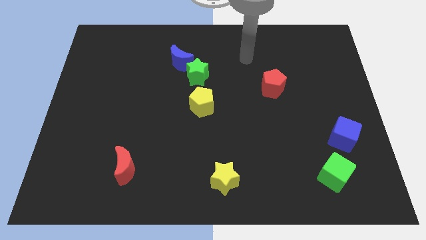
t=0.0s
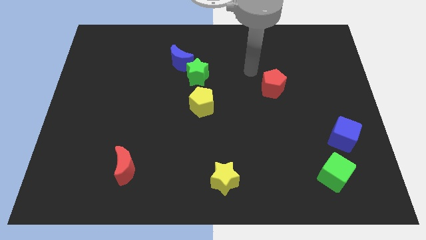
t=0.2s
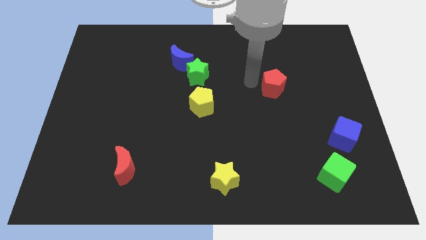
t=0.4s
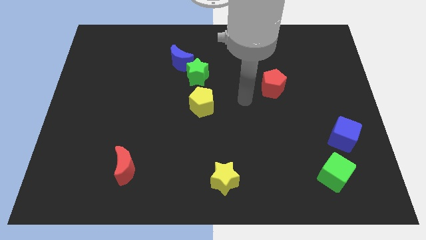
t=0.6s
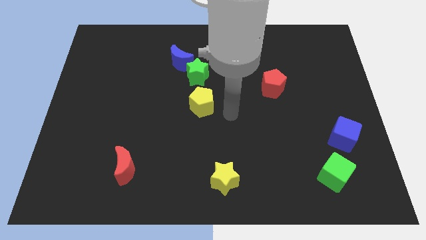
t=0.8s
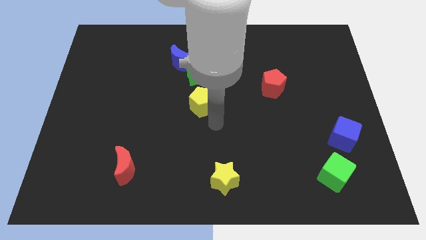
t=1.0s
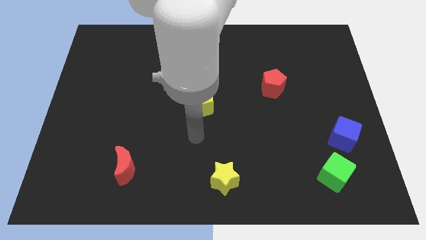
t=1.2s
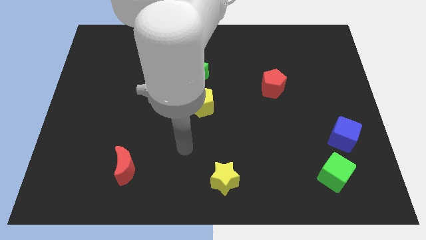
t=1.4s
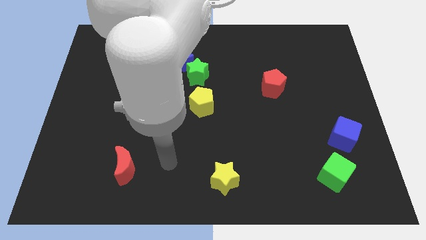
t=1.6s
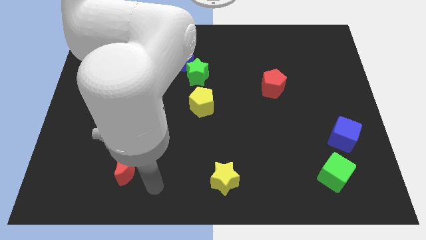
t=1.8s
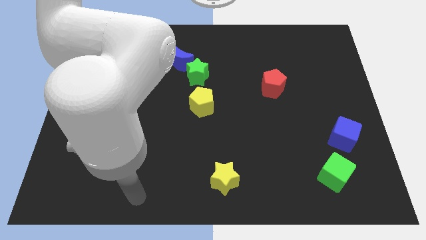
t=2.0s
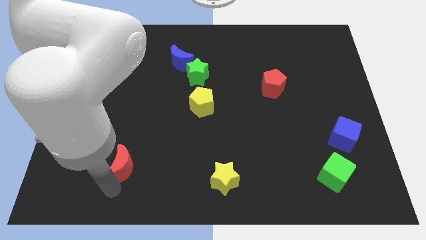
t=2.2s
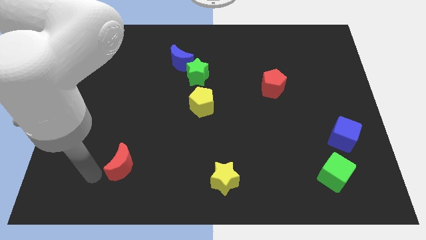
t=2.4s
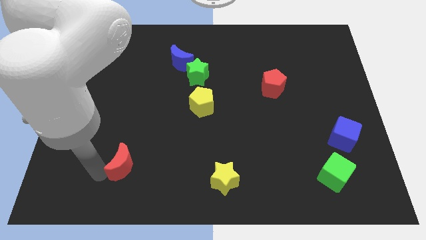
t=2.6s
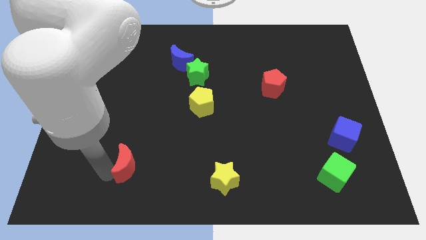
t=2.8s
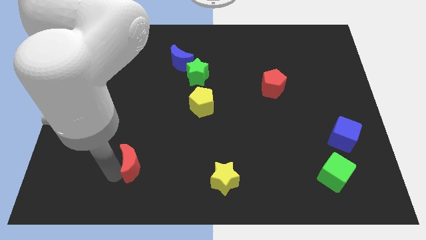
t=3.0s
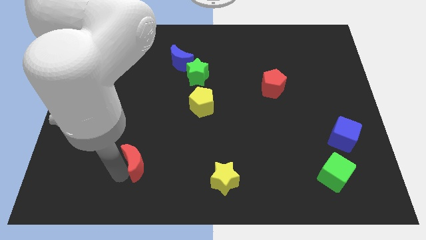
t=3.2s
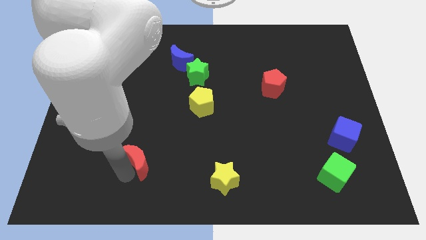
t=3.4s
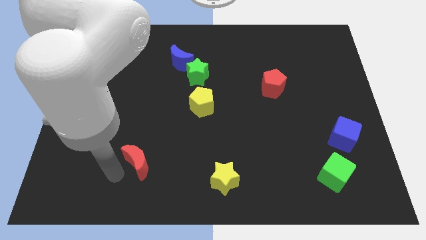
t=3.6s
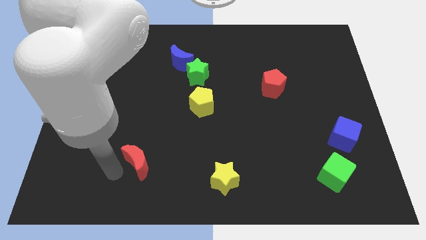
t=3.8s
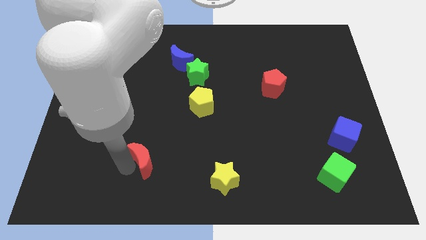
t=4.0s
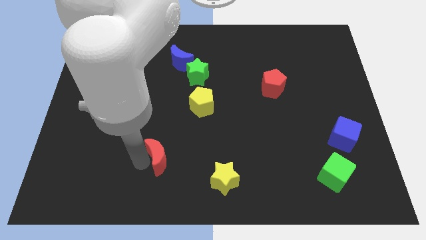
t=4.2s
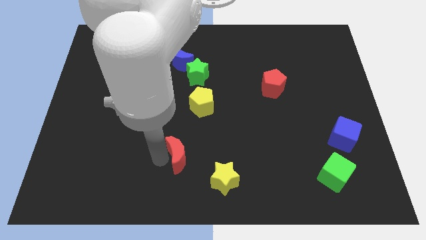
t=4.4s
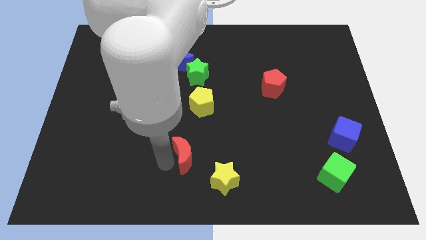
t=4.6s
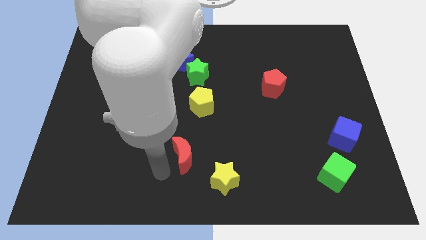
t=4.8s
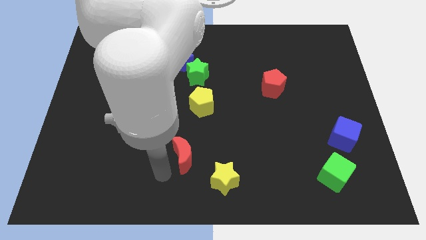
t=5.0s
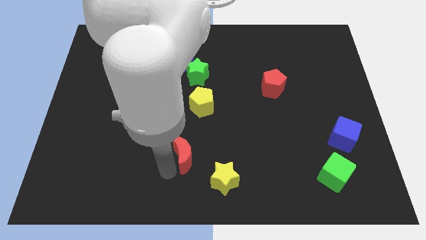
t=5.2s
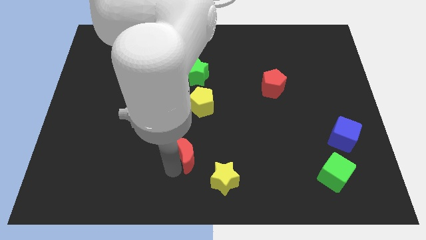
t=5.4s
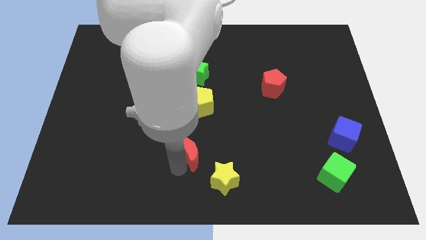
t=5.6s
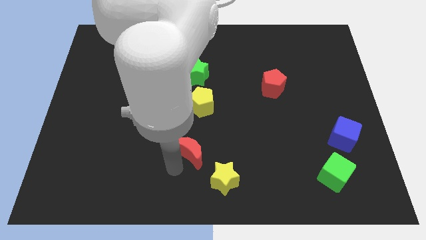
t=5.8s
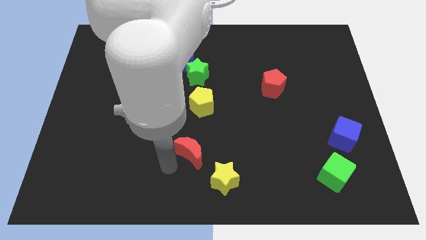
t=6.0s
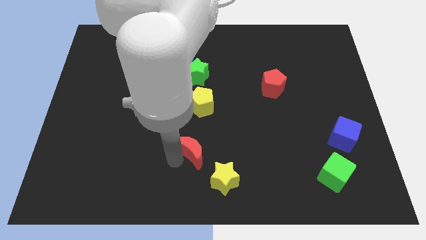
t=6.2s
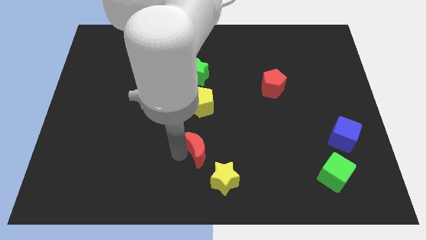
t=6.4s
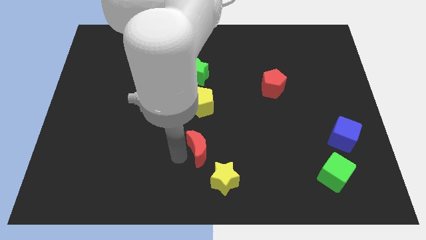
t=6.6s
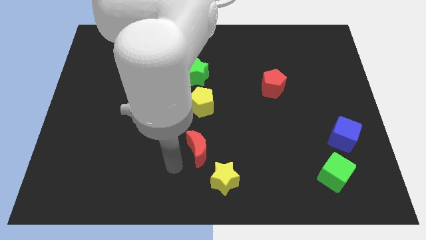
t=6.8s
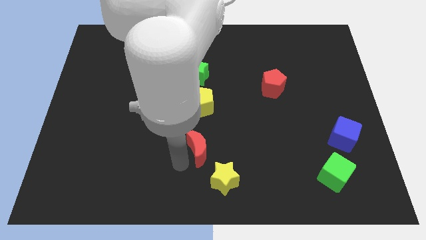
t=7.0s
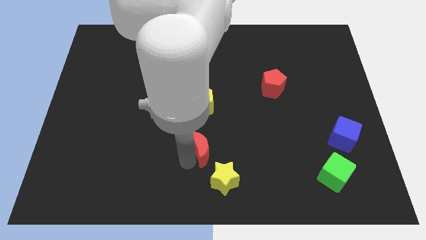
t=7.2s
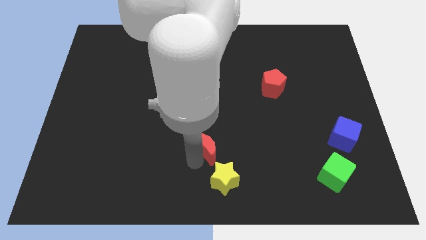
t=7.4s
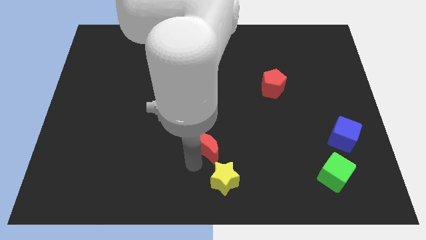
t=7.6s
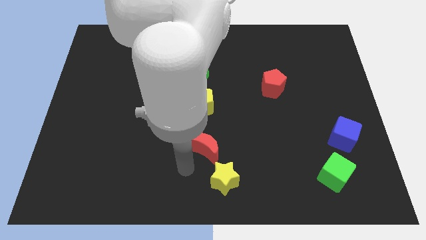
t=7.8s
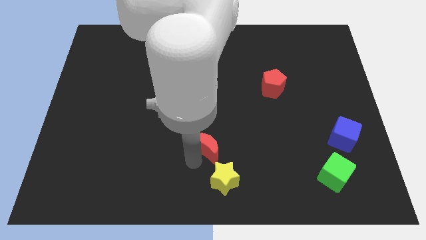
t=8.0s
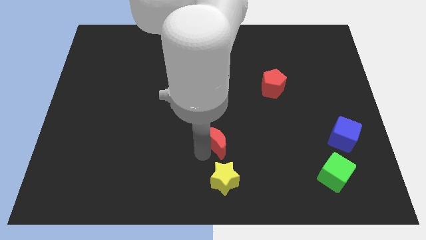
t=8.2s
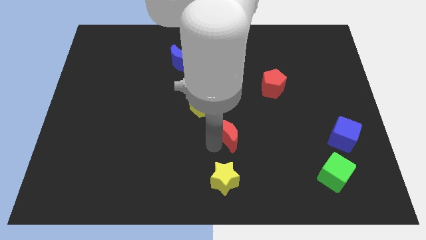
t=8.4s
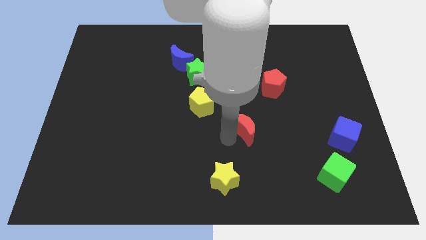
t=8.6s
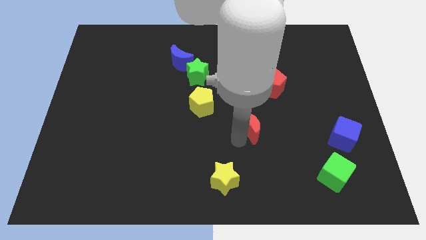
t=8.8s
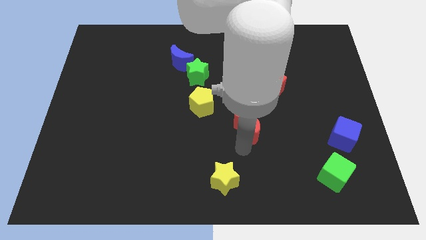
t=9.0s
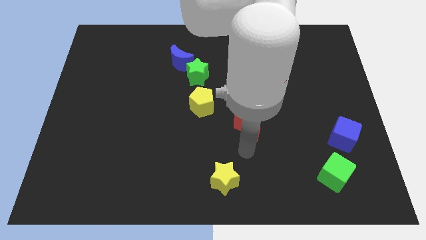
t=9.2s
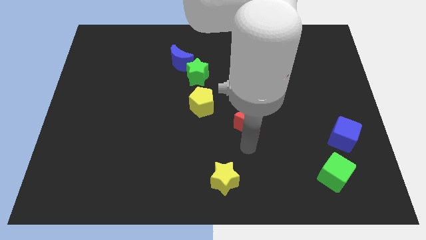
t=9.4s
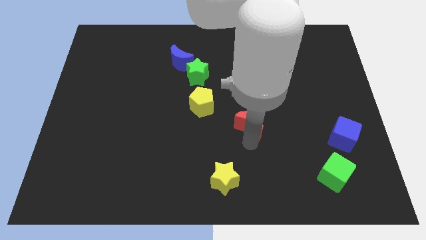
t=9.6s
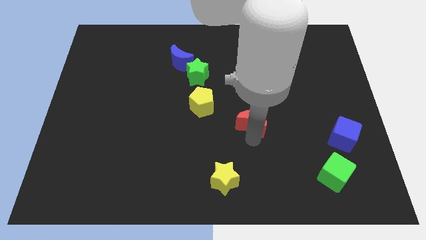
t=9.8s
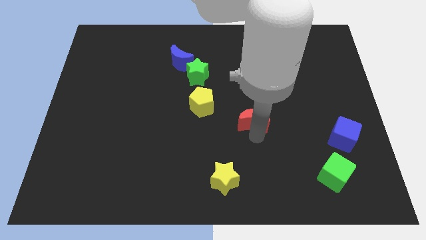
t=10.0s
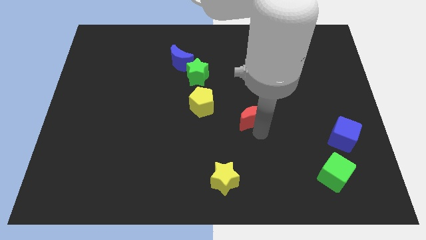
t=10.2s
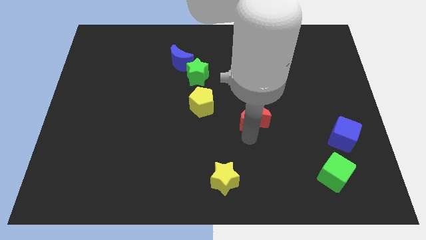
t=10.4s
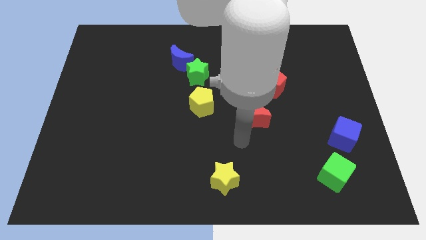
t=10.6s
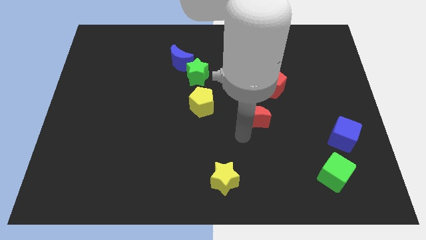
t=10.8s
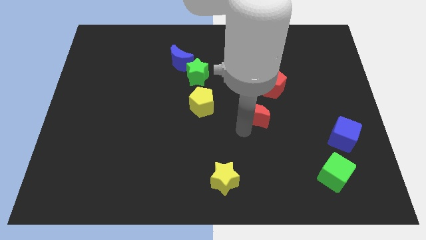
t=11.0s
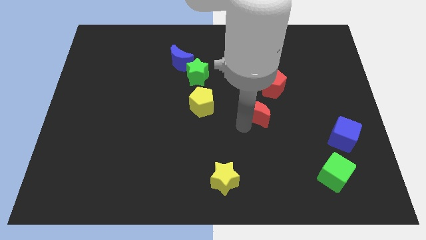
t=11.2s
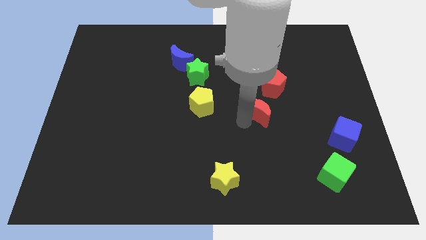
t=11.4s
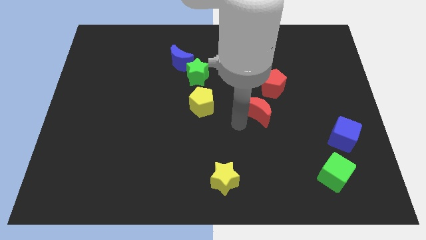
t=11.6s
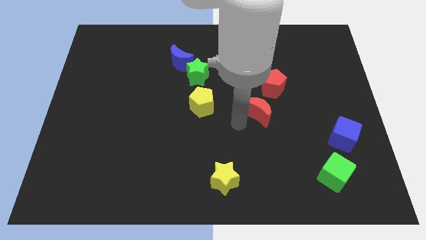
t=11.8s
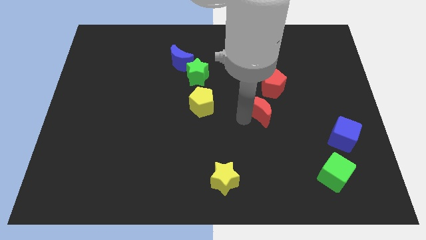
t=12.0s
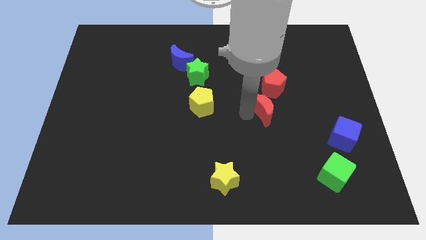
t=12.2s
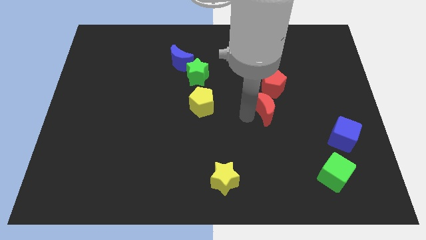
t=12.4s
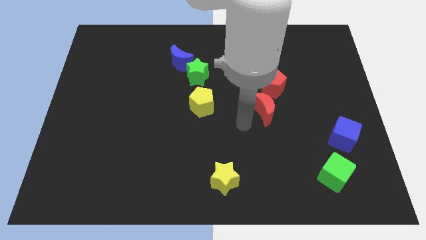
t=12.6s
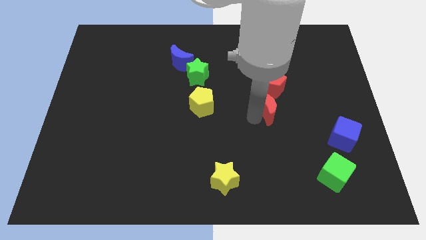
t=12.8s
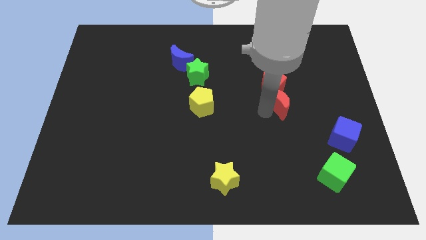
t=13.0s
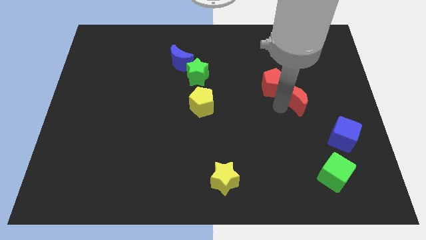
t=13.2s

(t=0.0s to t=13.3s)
put the red moon to the right of the red pentagon

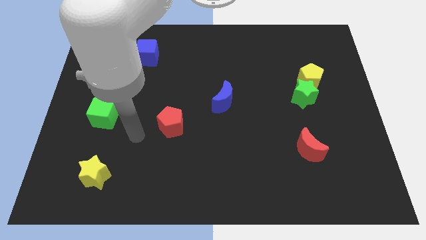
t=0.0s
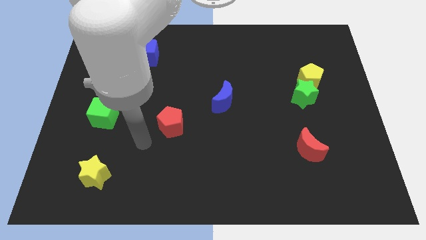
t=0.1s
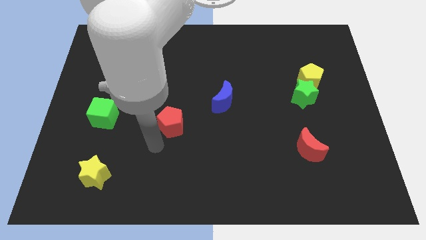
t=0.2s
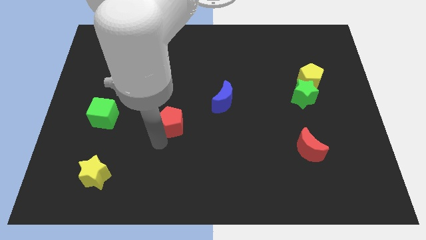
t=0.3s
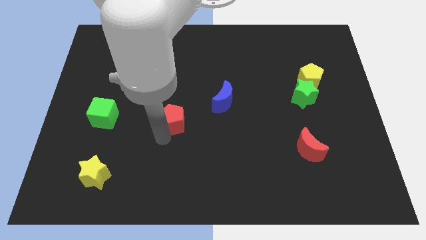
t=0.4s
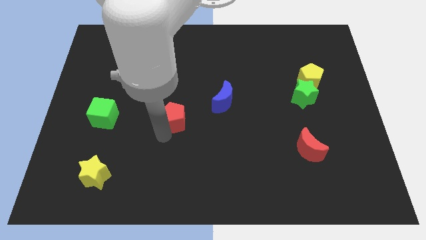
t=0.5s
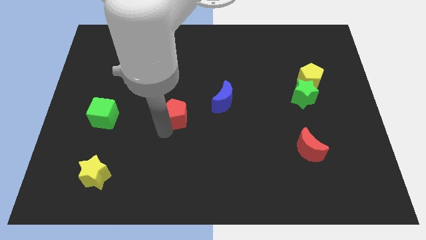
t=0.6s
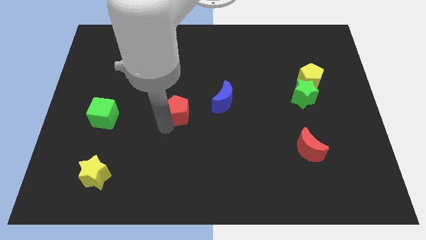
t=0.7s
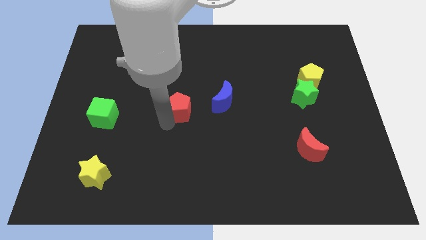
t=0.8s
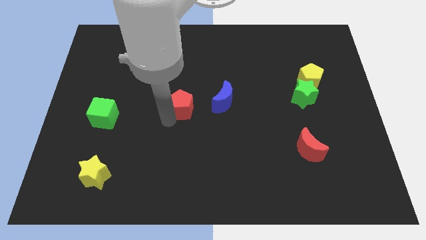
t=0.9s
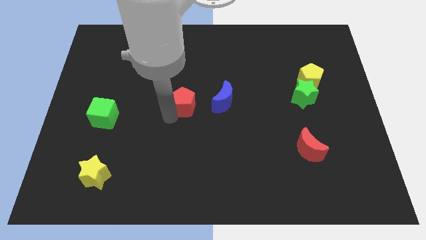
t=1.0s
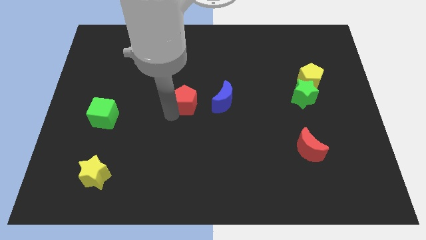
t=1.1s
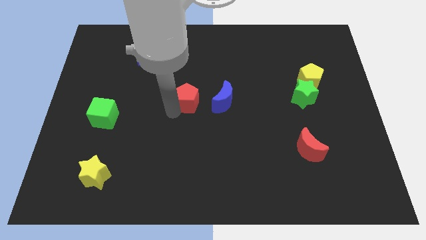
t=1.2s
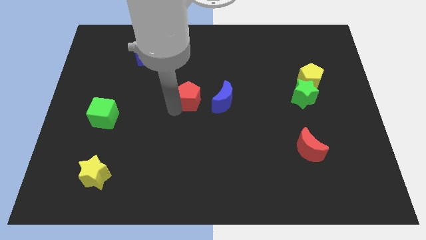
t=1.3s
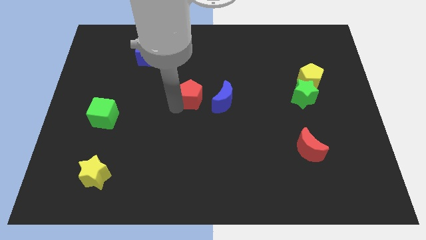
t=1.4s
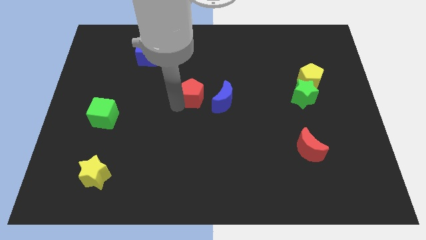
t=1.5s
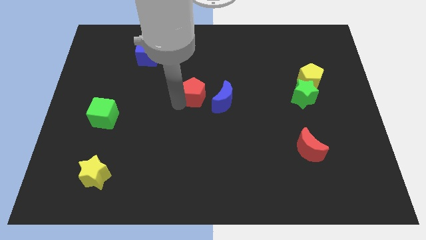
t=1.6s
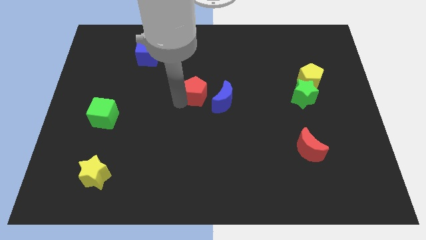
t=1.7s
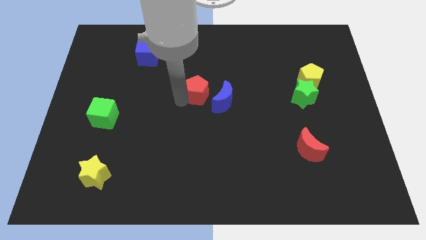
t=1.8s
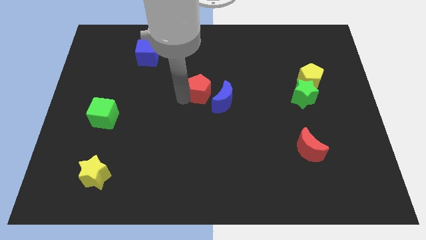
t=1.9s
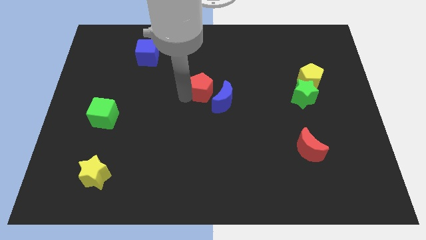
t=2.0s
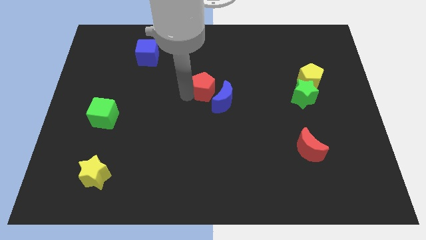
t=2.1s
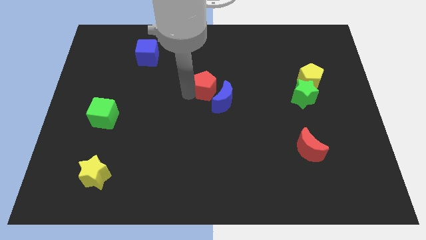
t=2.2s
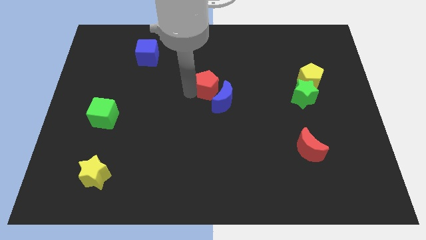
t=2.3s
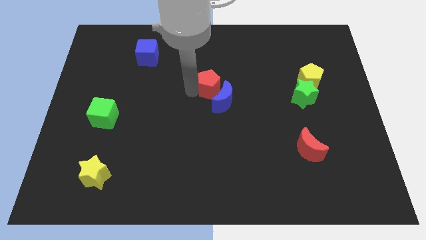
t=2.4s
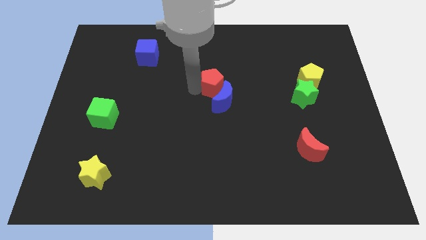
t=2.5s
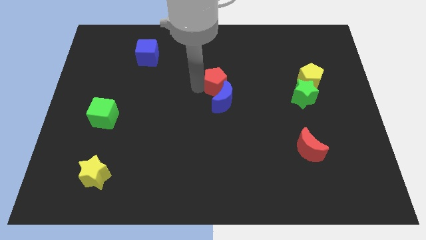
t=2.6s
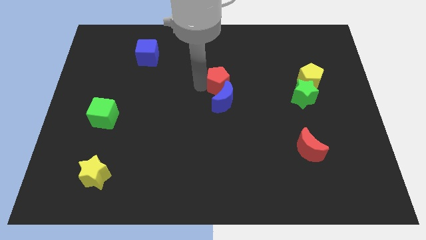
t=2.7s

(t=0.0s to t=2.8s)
move the red pentagon diagonally up and to the right of the blue moon
